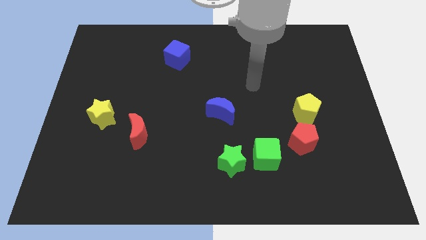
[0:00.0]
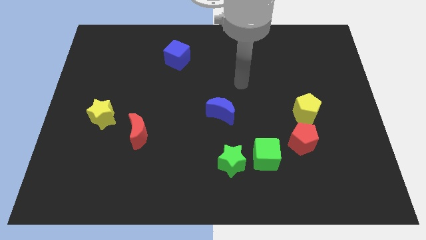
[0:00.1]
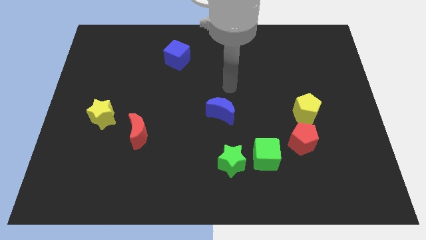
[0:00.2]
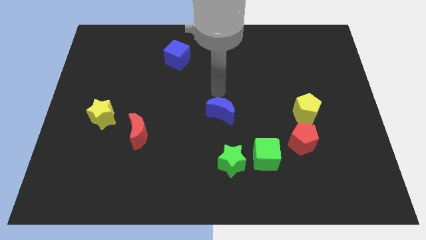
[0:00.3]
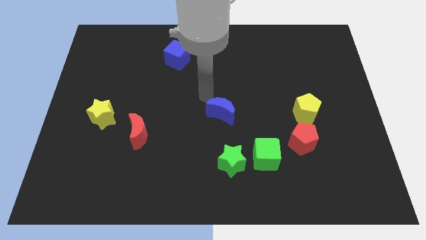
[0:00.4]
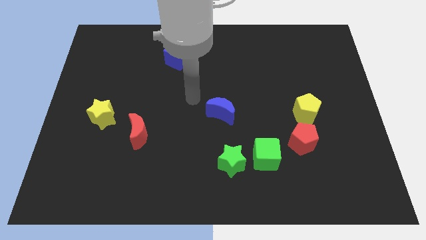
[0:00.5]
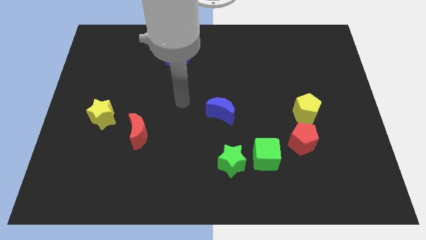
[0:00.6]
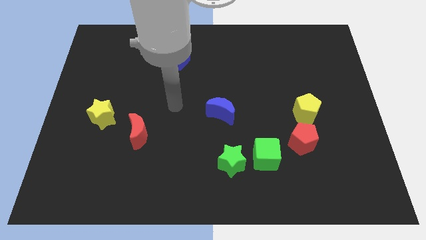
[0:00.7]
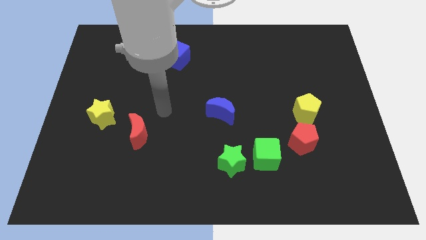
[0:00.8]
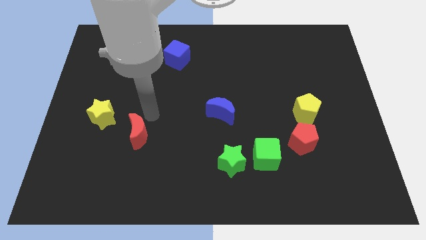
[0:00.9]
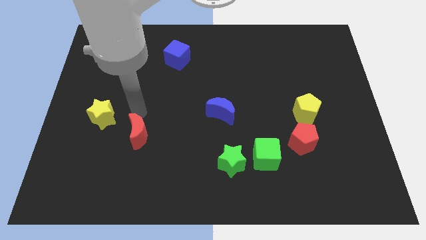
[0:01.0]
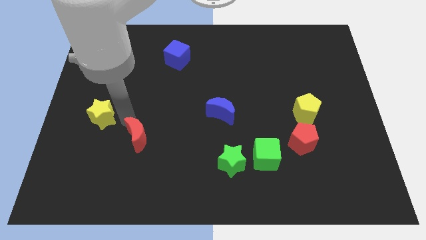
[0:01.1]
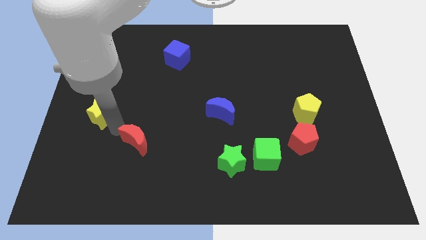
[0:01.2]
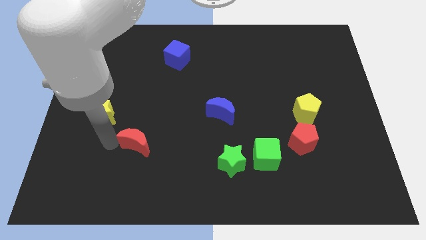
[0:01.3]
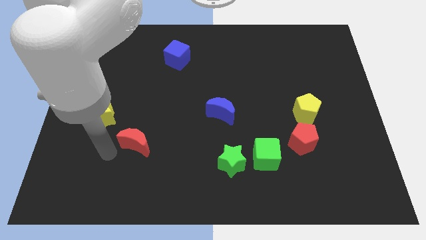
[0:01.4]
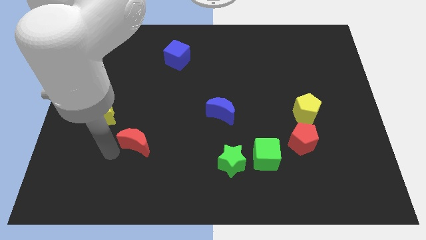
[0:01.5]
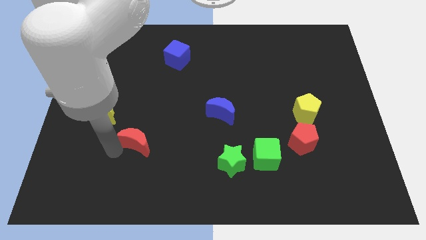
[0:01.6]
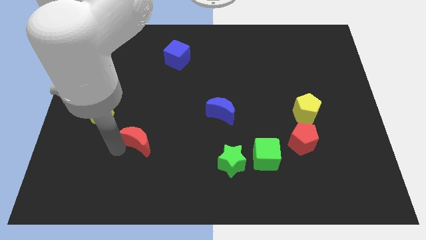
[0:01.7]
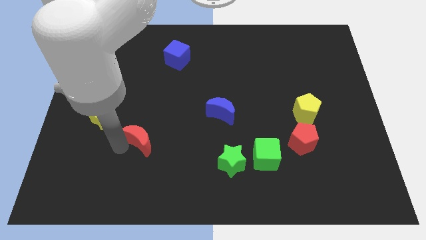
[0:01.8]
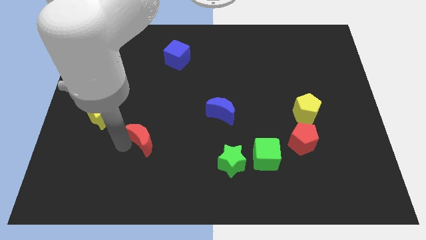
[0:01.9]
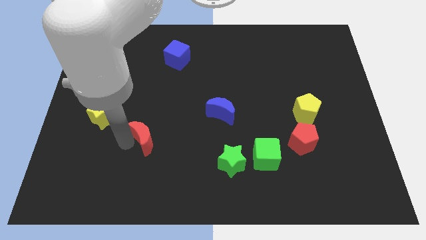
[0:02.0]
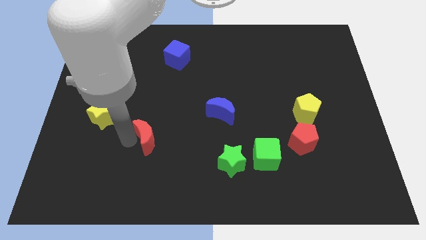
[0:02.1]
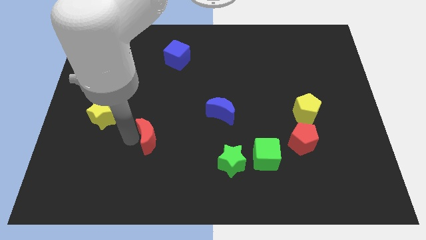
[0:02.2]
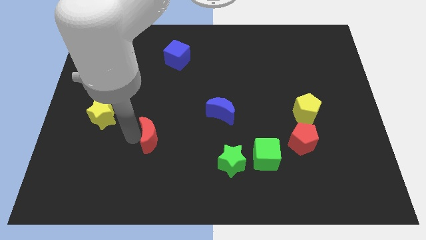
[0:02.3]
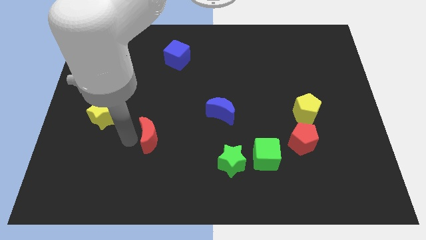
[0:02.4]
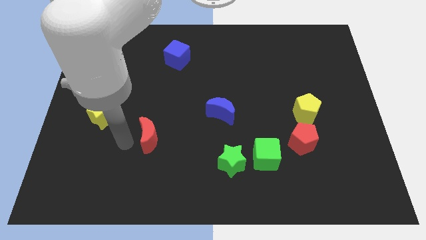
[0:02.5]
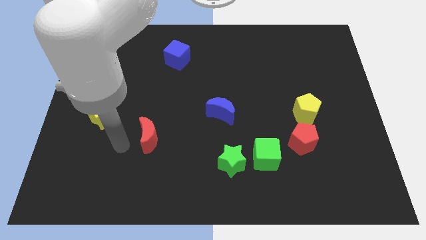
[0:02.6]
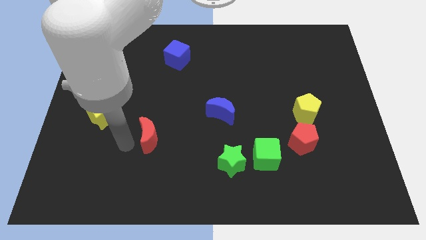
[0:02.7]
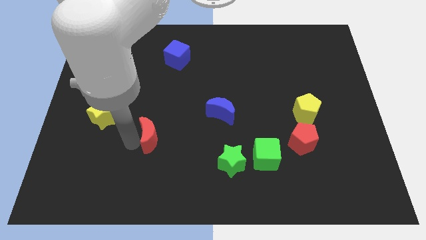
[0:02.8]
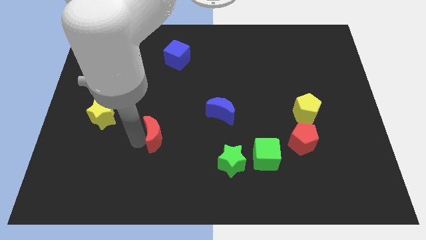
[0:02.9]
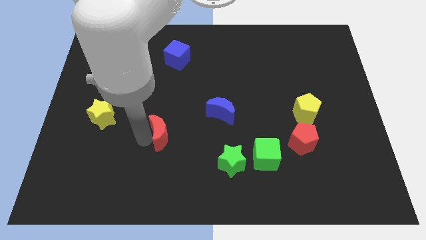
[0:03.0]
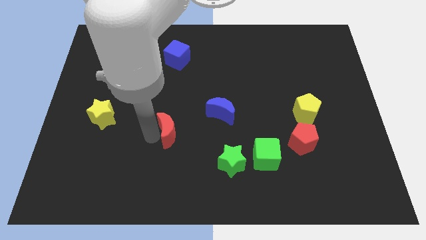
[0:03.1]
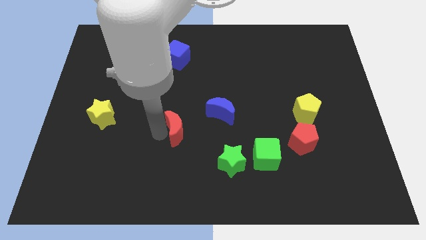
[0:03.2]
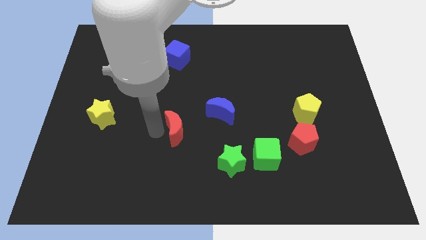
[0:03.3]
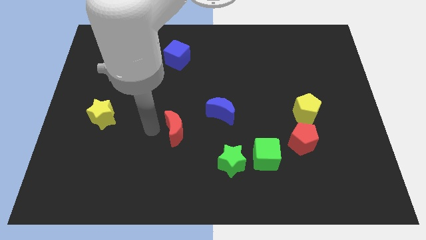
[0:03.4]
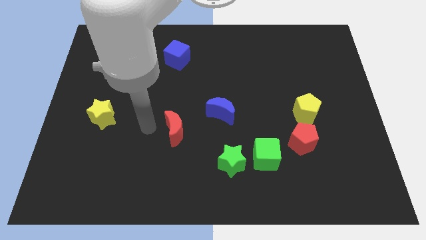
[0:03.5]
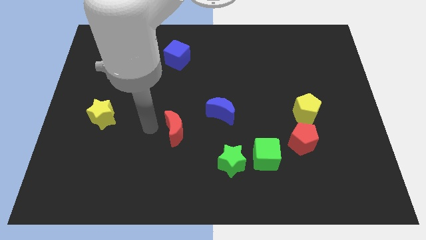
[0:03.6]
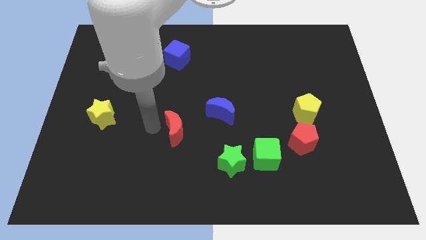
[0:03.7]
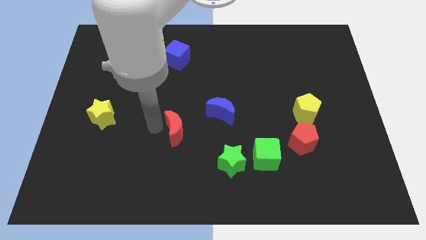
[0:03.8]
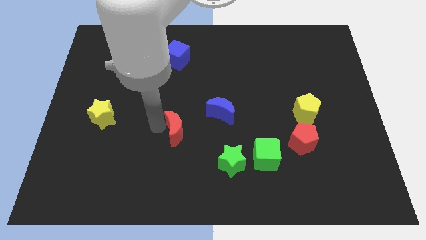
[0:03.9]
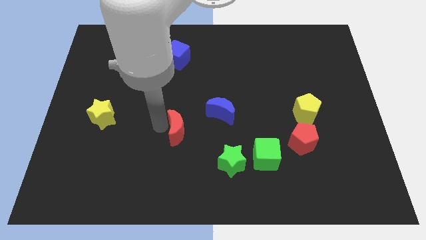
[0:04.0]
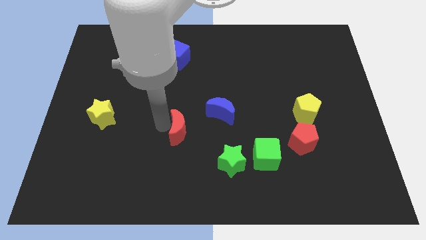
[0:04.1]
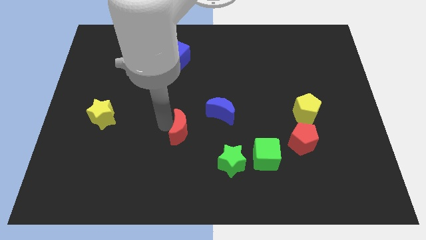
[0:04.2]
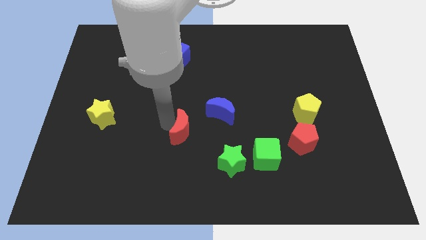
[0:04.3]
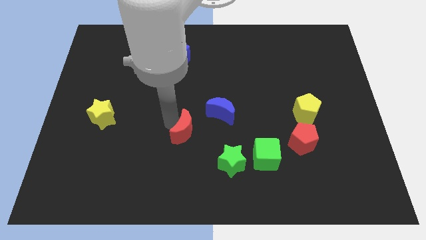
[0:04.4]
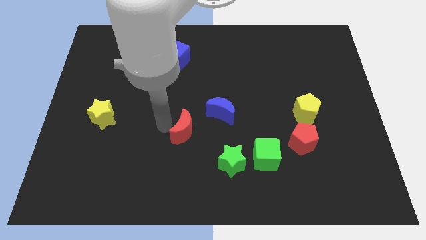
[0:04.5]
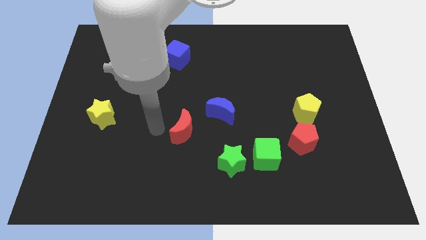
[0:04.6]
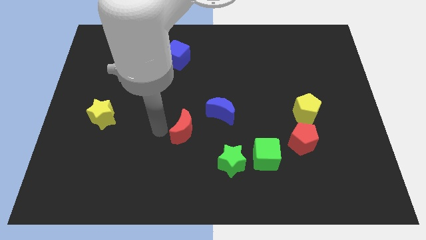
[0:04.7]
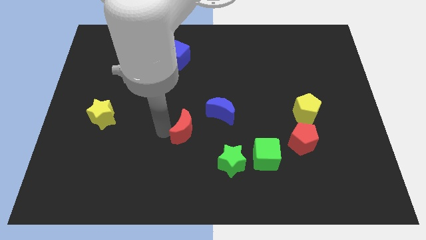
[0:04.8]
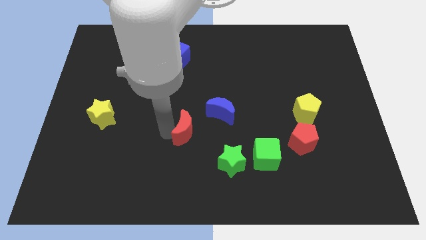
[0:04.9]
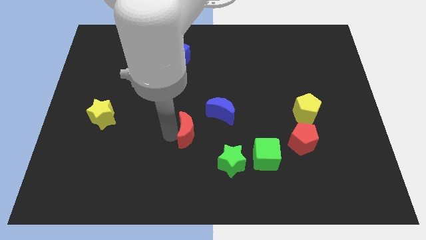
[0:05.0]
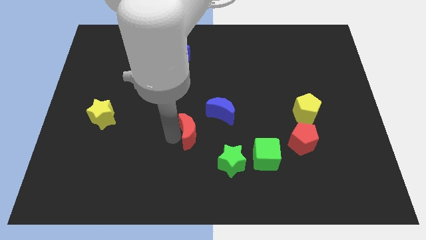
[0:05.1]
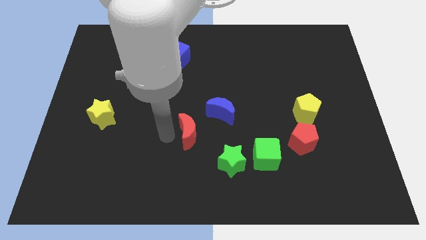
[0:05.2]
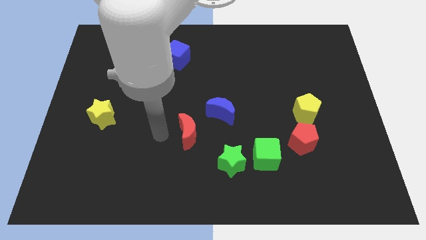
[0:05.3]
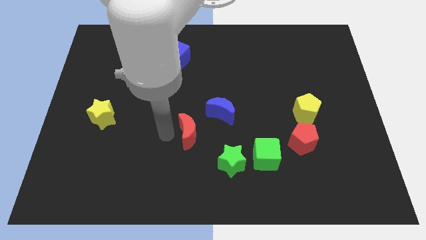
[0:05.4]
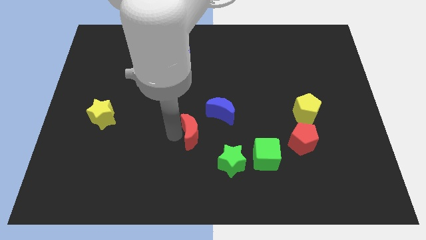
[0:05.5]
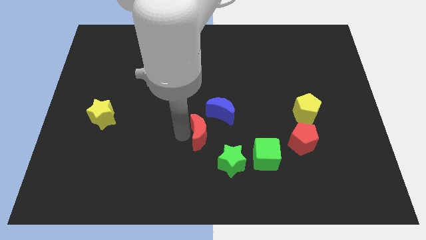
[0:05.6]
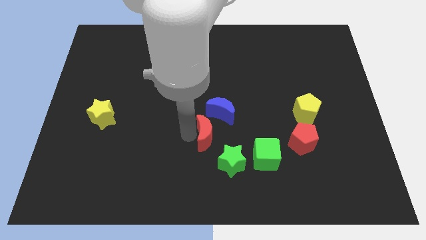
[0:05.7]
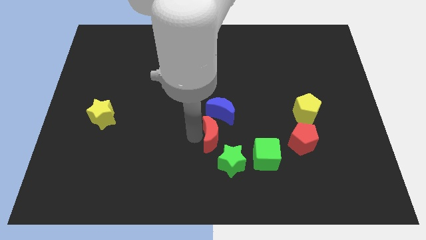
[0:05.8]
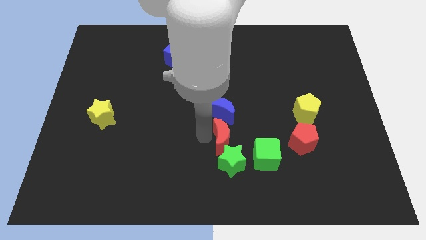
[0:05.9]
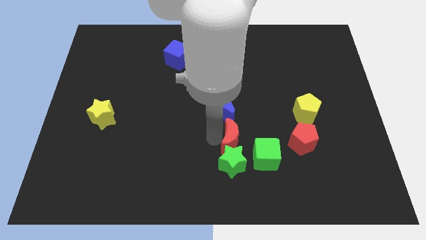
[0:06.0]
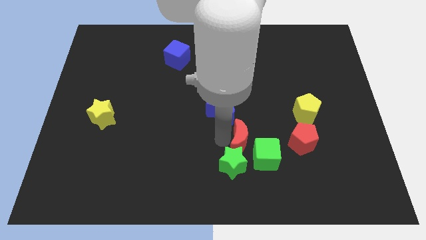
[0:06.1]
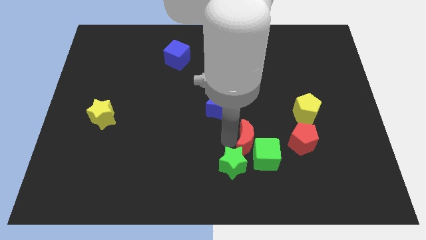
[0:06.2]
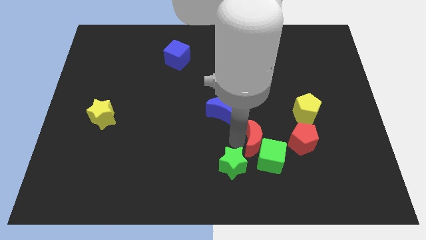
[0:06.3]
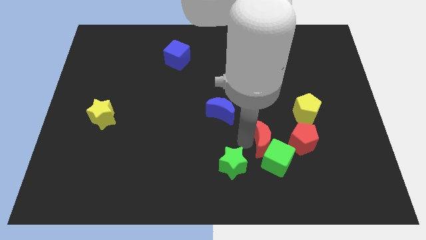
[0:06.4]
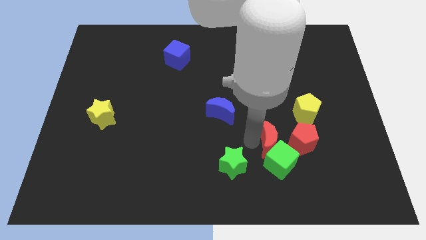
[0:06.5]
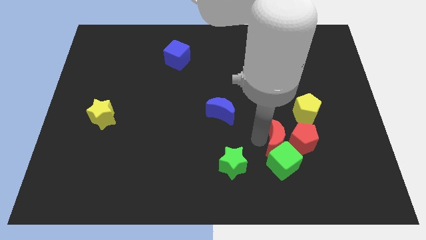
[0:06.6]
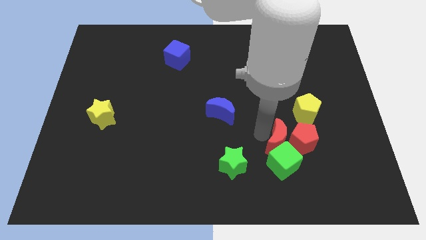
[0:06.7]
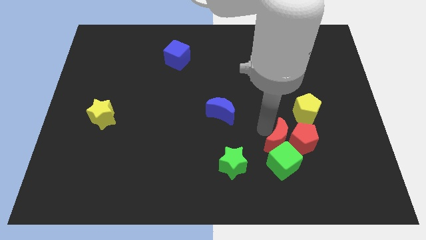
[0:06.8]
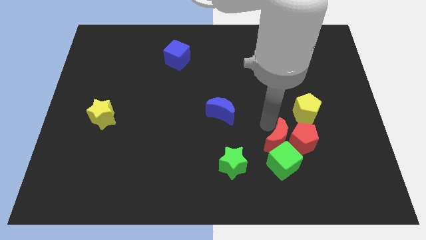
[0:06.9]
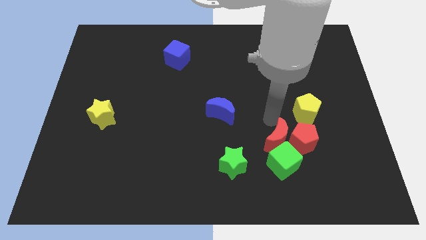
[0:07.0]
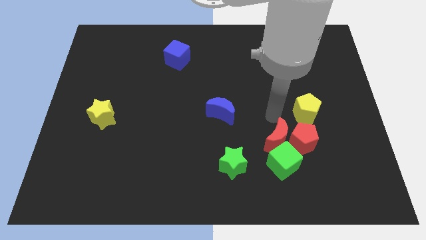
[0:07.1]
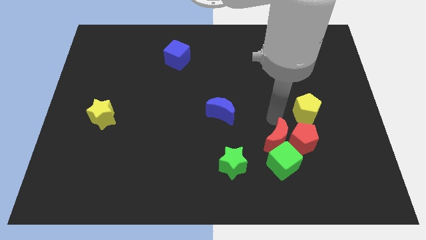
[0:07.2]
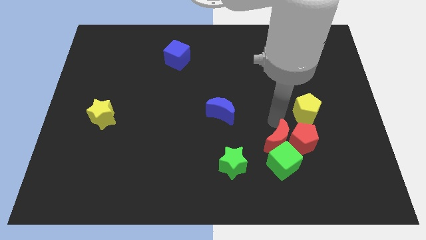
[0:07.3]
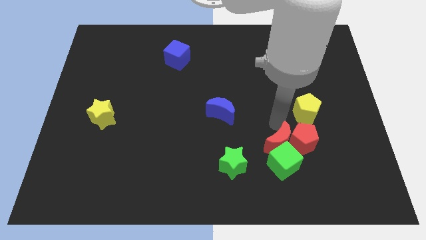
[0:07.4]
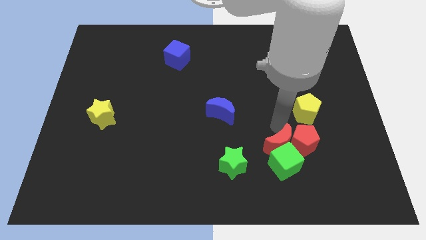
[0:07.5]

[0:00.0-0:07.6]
move the red moon right of the green star
